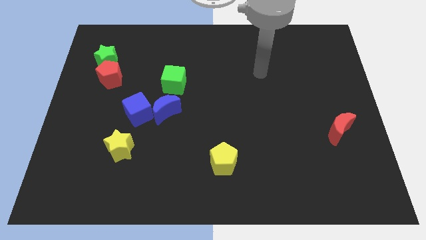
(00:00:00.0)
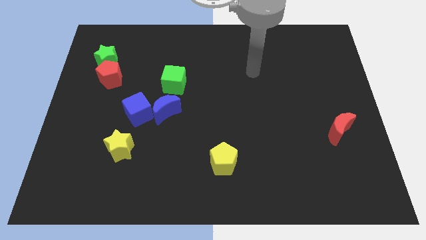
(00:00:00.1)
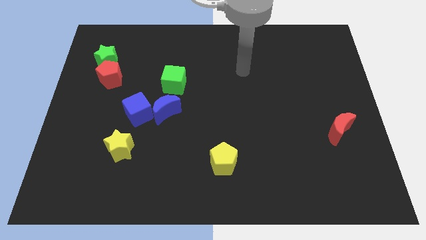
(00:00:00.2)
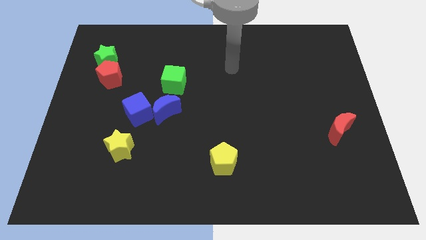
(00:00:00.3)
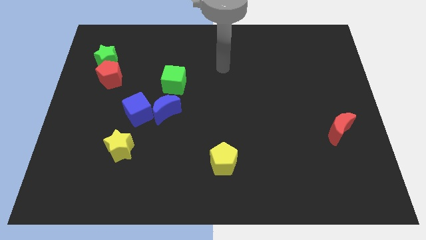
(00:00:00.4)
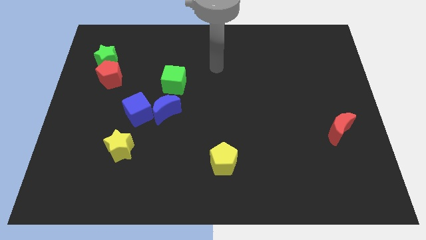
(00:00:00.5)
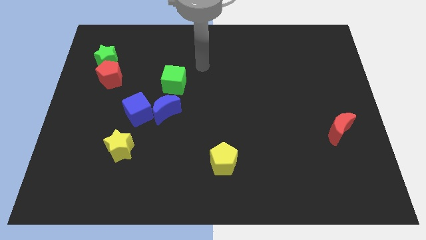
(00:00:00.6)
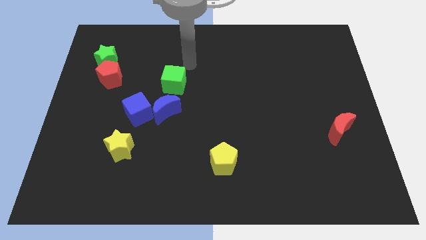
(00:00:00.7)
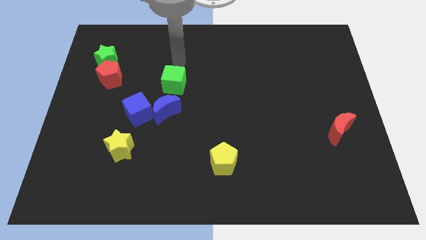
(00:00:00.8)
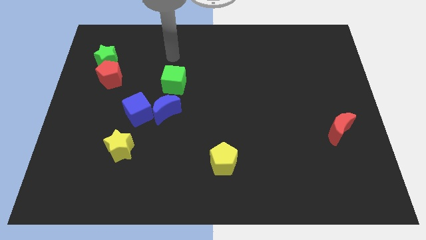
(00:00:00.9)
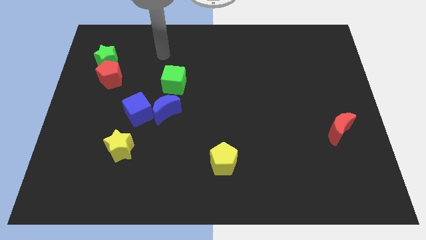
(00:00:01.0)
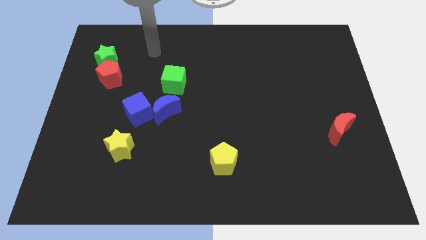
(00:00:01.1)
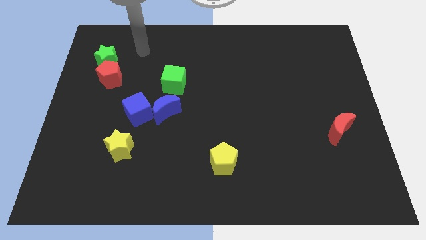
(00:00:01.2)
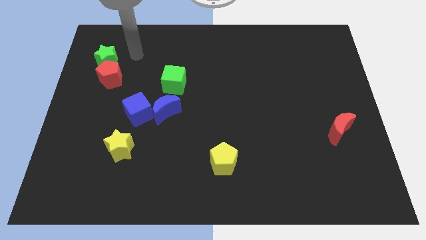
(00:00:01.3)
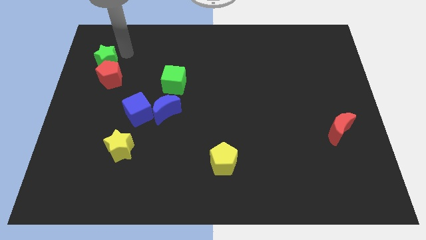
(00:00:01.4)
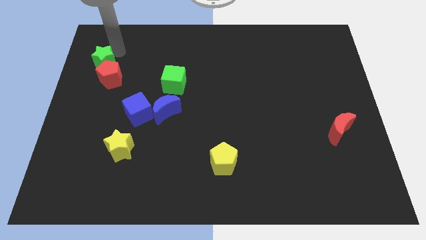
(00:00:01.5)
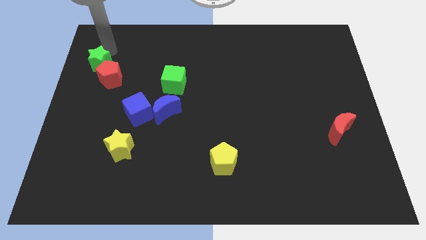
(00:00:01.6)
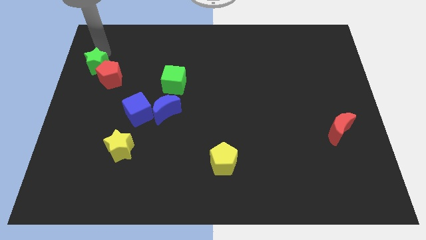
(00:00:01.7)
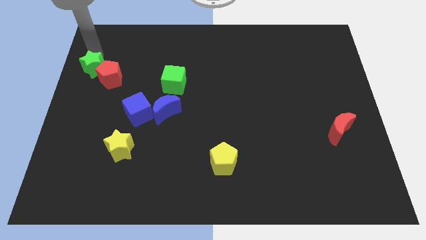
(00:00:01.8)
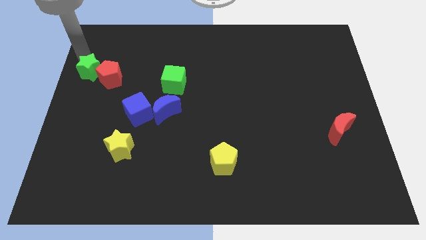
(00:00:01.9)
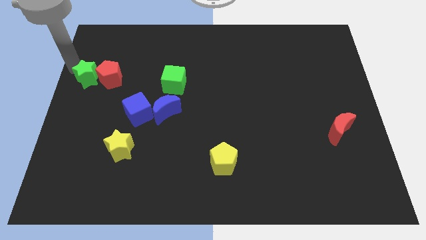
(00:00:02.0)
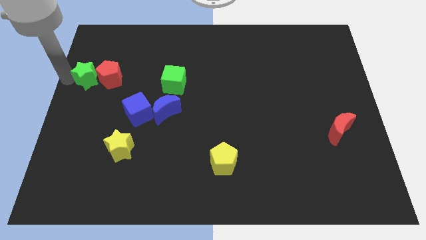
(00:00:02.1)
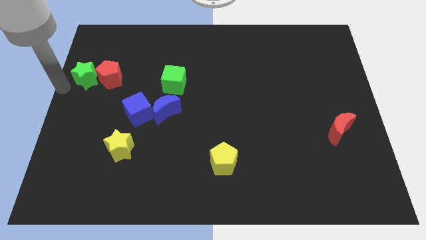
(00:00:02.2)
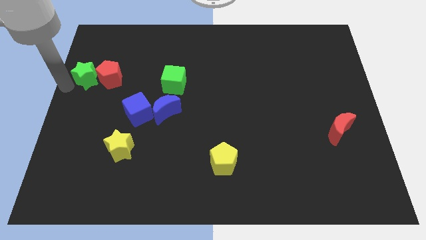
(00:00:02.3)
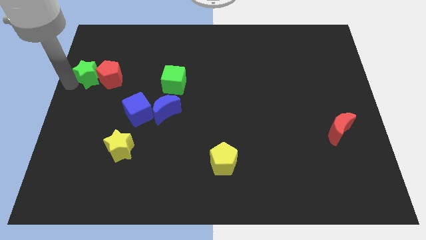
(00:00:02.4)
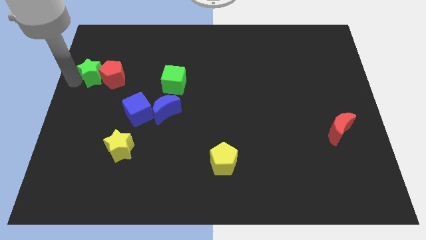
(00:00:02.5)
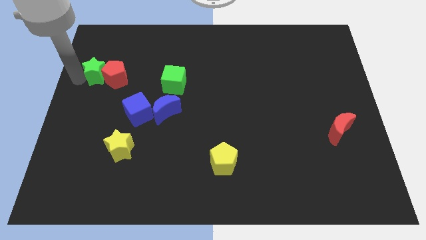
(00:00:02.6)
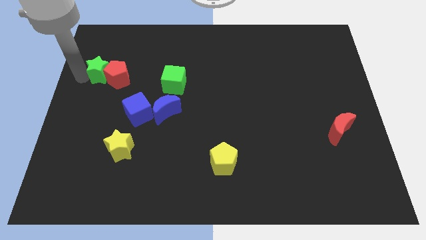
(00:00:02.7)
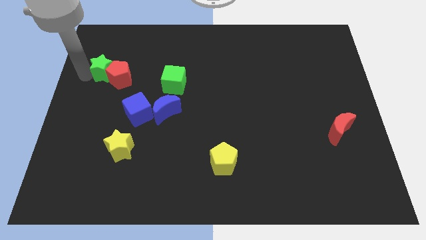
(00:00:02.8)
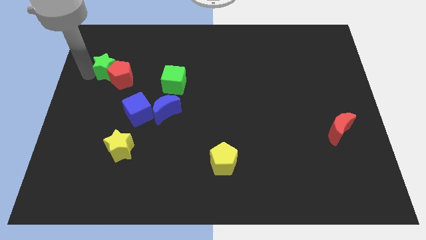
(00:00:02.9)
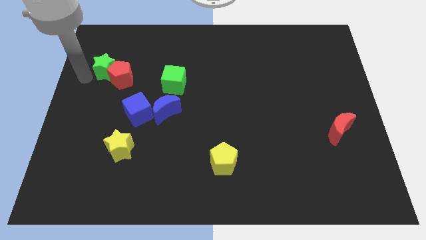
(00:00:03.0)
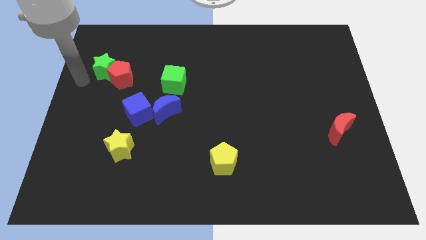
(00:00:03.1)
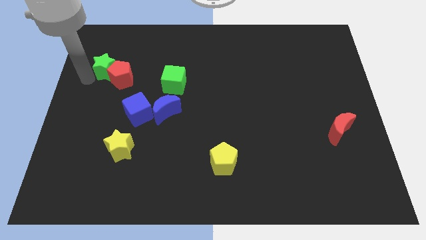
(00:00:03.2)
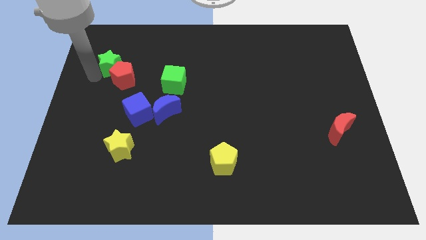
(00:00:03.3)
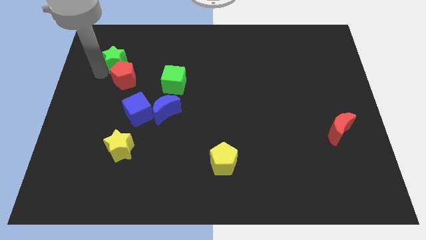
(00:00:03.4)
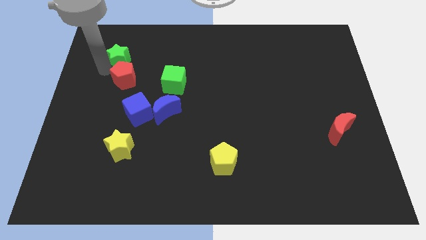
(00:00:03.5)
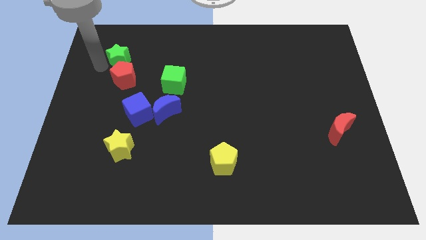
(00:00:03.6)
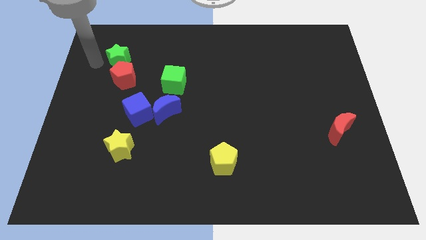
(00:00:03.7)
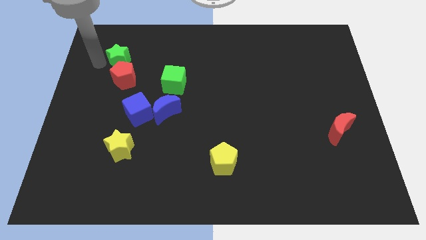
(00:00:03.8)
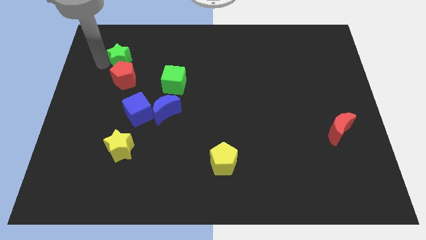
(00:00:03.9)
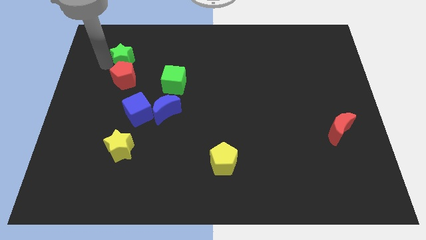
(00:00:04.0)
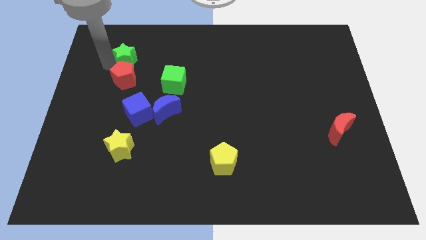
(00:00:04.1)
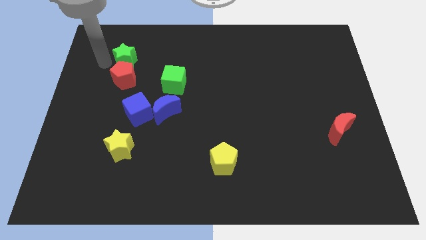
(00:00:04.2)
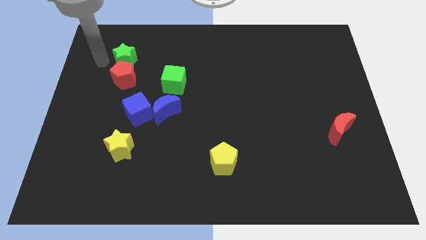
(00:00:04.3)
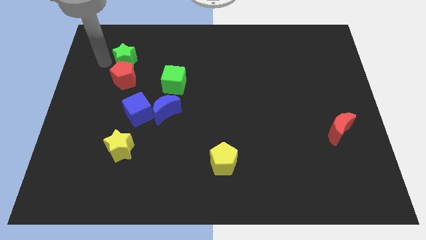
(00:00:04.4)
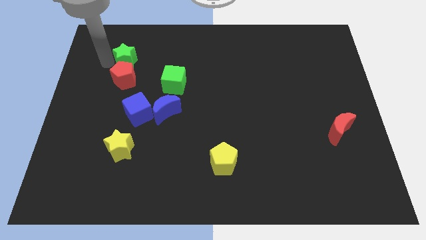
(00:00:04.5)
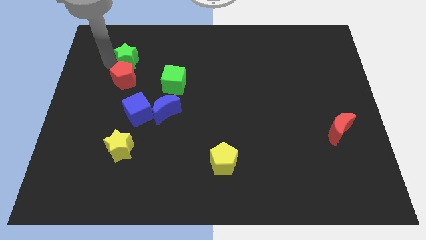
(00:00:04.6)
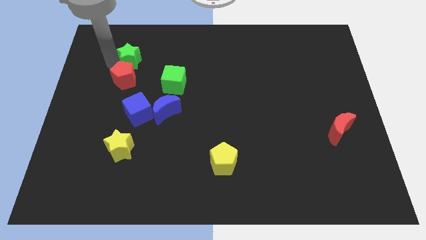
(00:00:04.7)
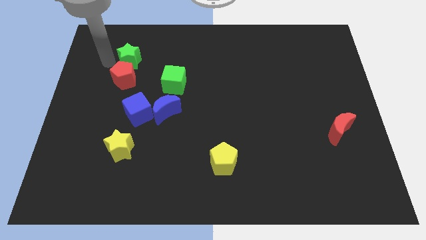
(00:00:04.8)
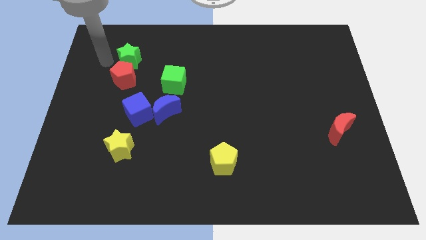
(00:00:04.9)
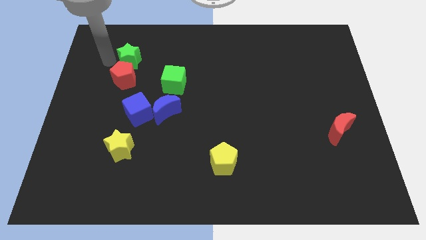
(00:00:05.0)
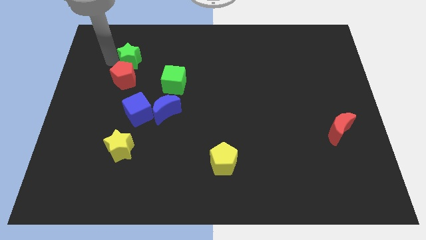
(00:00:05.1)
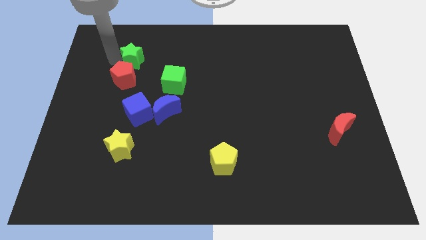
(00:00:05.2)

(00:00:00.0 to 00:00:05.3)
slightly push the green star to the right

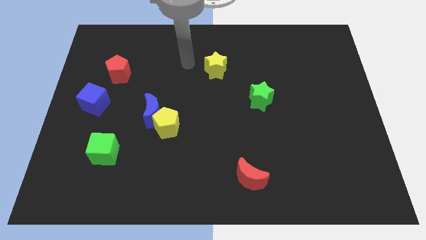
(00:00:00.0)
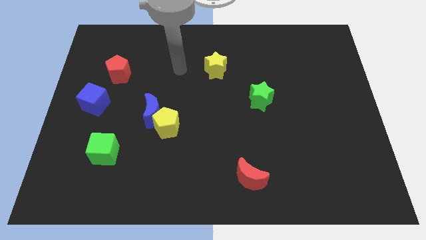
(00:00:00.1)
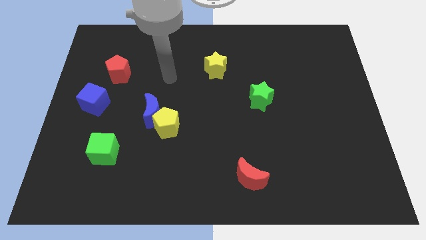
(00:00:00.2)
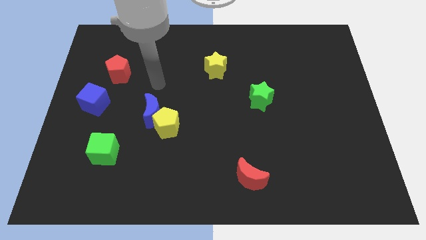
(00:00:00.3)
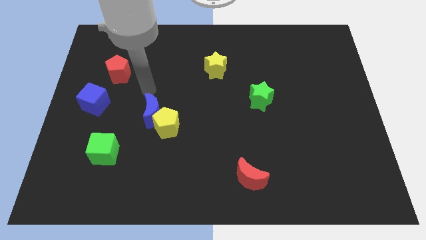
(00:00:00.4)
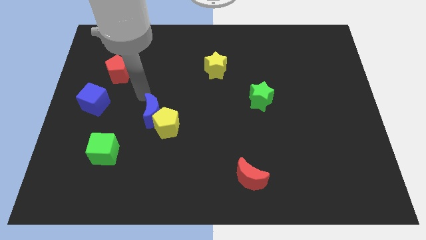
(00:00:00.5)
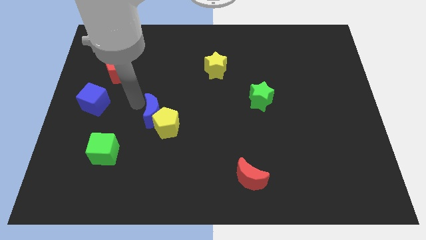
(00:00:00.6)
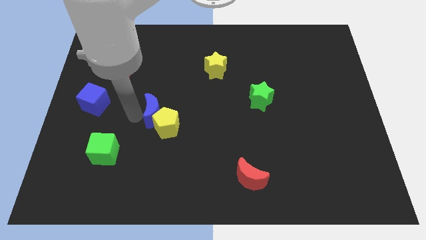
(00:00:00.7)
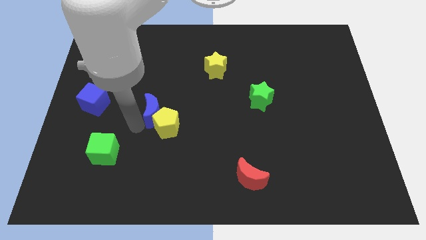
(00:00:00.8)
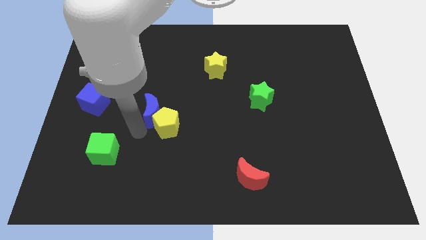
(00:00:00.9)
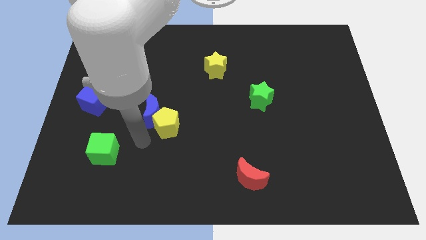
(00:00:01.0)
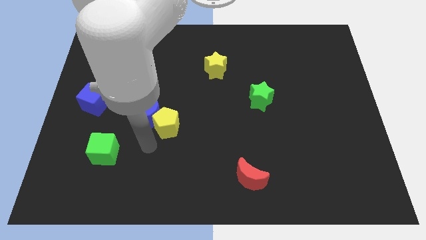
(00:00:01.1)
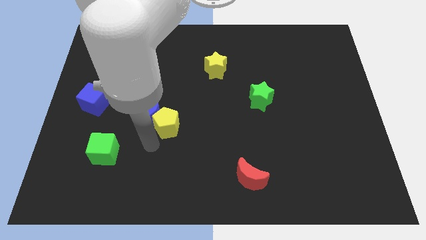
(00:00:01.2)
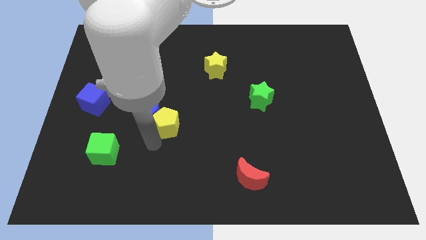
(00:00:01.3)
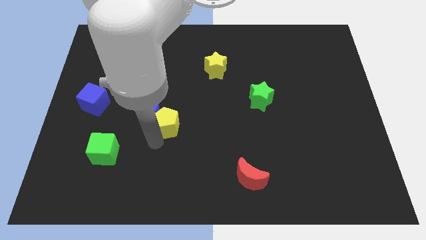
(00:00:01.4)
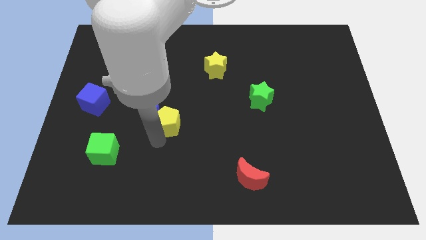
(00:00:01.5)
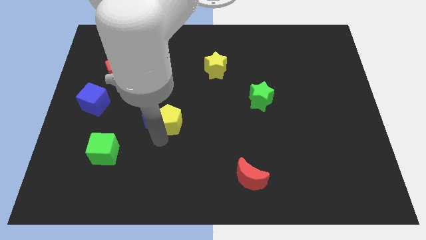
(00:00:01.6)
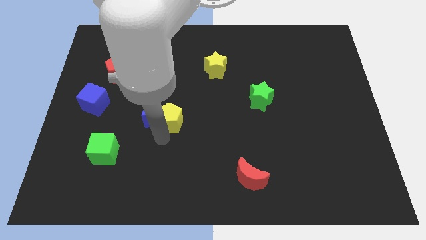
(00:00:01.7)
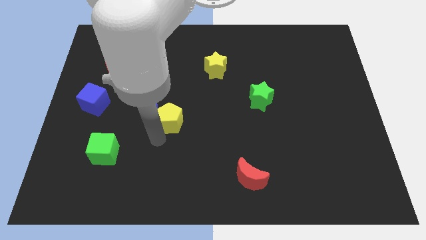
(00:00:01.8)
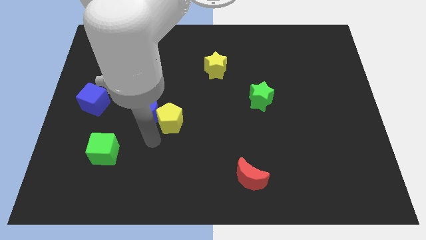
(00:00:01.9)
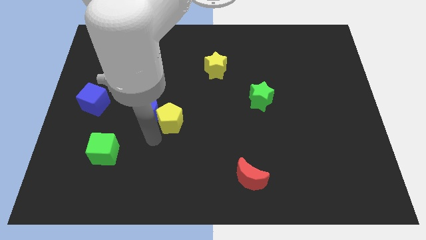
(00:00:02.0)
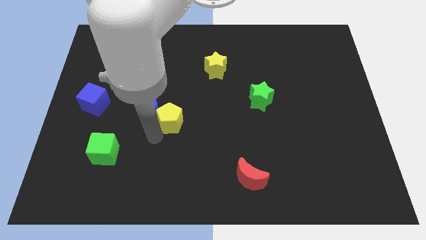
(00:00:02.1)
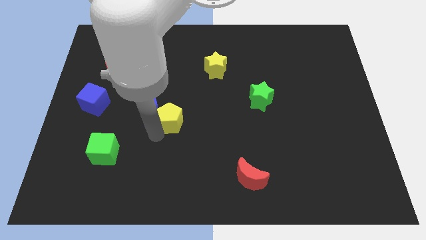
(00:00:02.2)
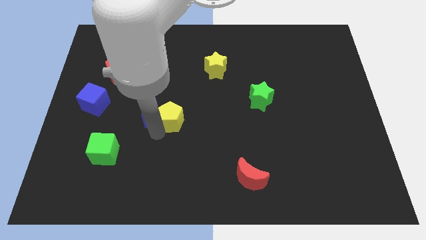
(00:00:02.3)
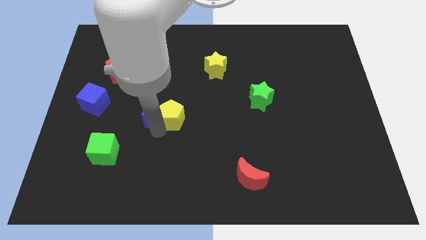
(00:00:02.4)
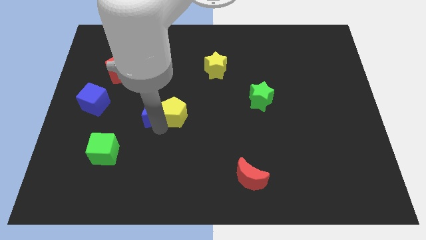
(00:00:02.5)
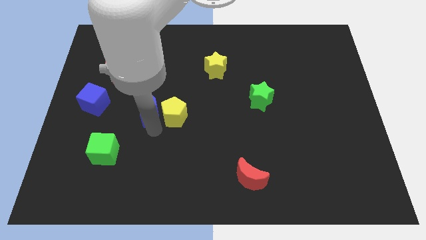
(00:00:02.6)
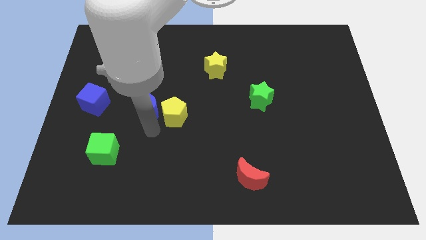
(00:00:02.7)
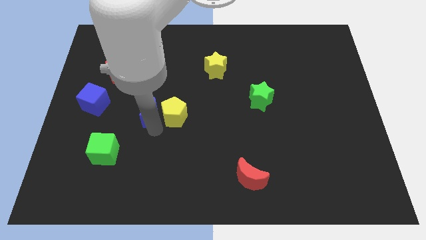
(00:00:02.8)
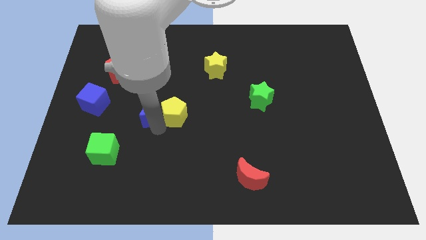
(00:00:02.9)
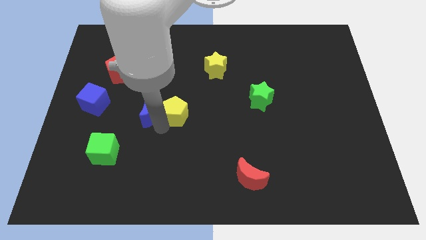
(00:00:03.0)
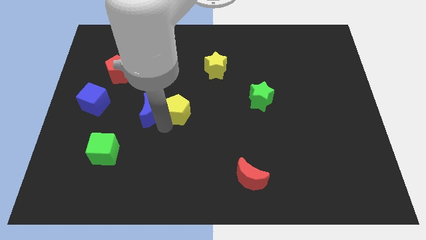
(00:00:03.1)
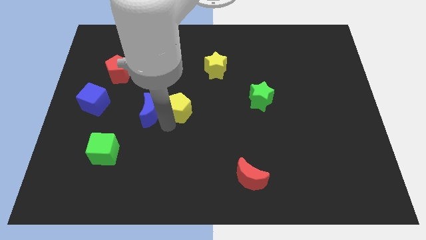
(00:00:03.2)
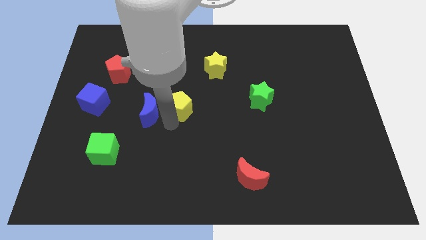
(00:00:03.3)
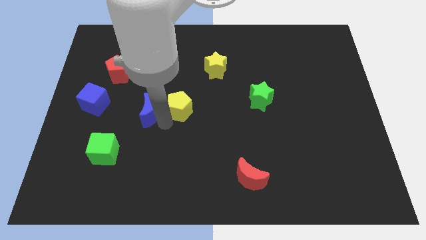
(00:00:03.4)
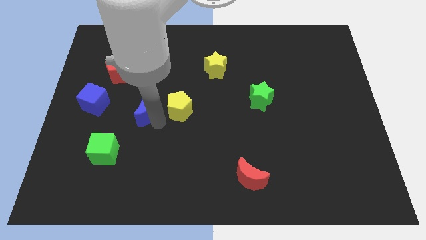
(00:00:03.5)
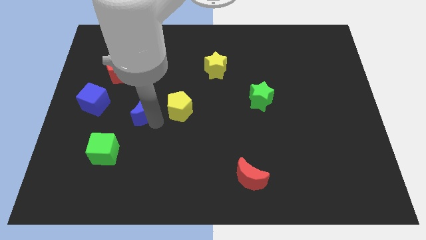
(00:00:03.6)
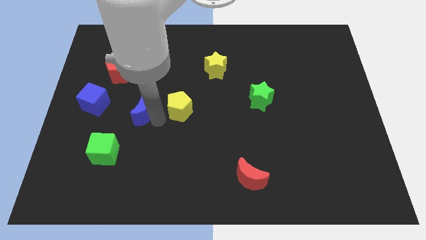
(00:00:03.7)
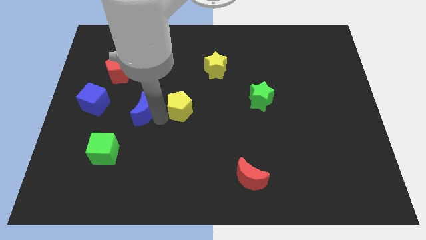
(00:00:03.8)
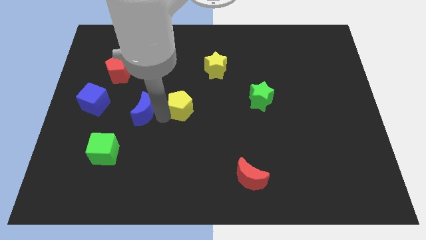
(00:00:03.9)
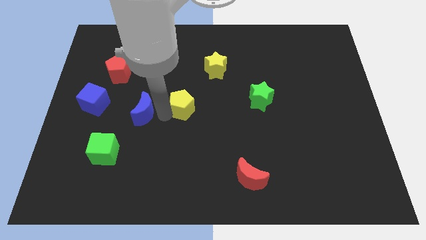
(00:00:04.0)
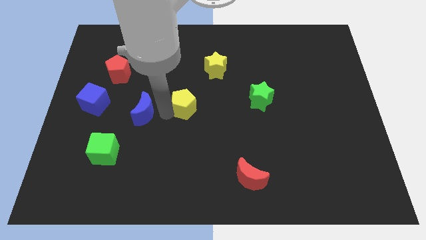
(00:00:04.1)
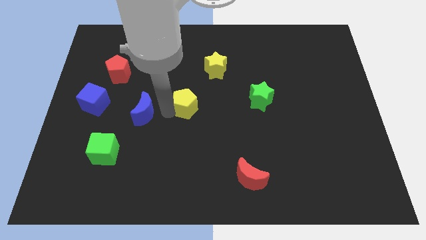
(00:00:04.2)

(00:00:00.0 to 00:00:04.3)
slide the yellow pentagon a little upwards and to the right diagonally
